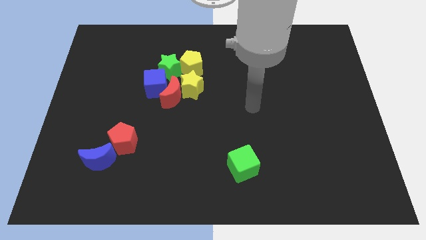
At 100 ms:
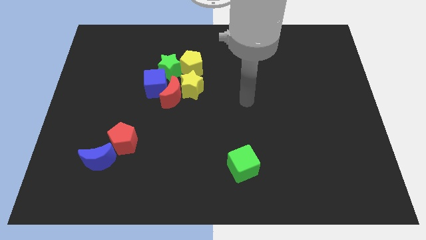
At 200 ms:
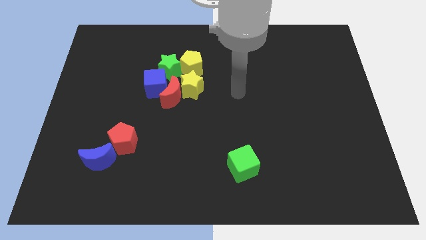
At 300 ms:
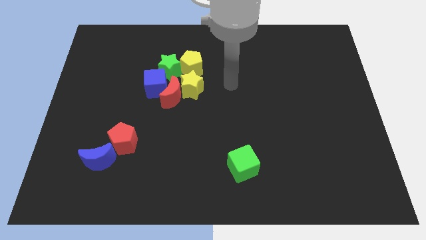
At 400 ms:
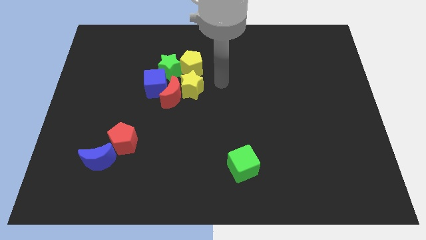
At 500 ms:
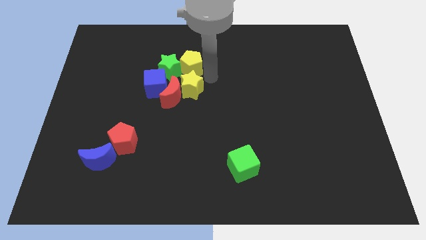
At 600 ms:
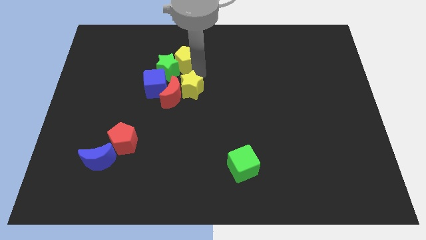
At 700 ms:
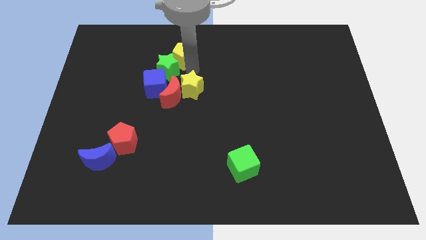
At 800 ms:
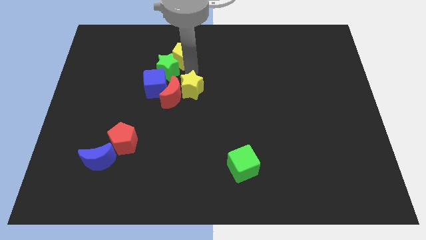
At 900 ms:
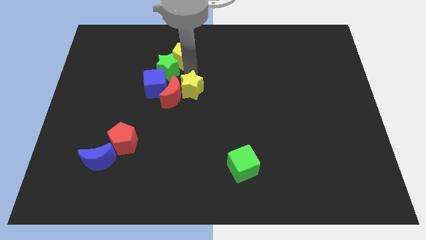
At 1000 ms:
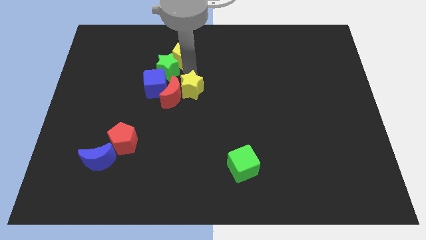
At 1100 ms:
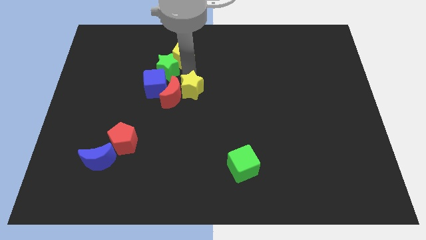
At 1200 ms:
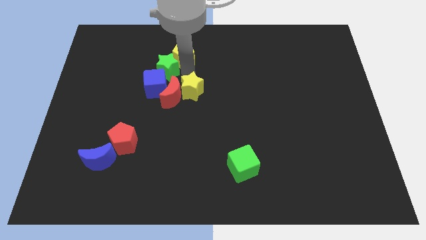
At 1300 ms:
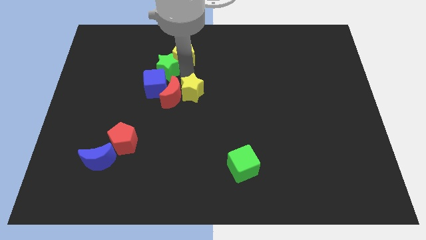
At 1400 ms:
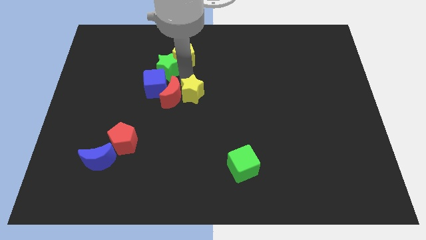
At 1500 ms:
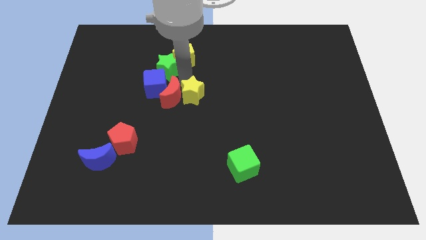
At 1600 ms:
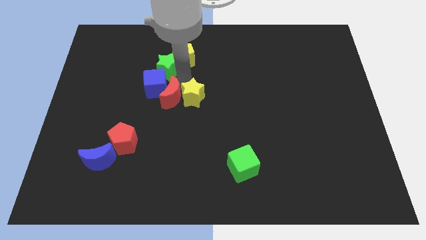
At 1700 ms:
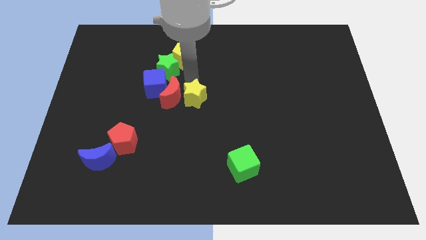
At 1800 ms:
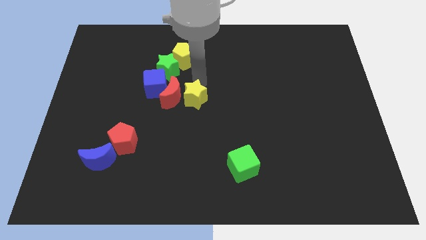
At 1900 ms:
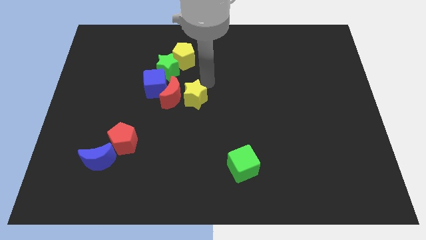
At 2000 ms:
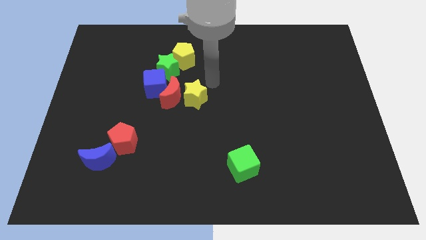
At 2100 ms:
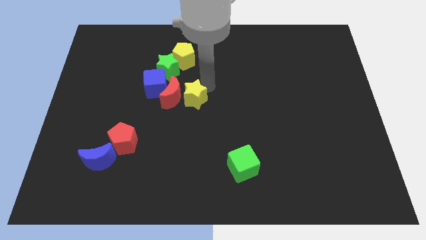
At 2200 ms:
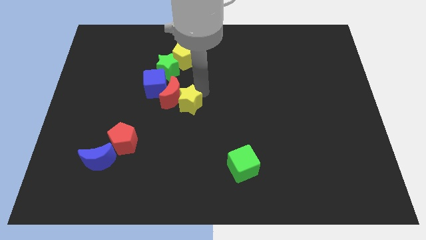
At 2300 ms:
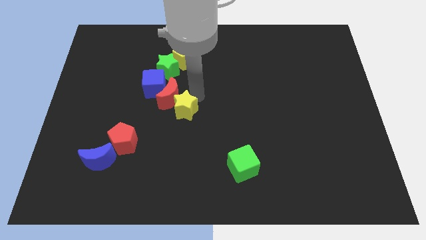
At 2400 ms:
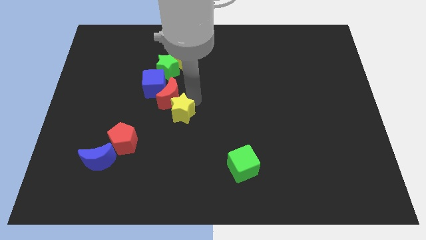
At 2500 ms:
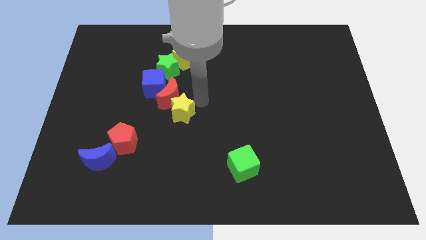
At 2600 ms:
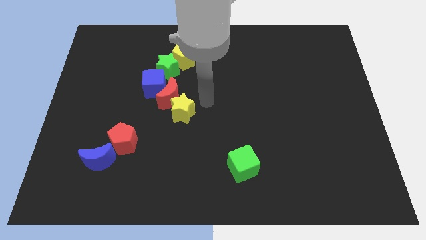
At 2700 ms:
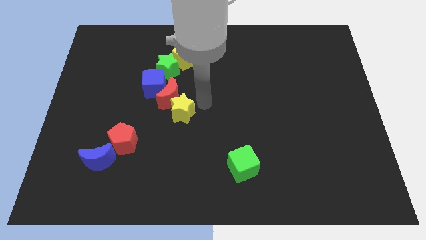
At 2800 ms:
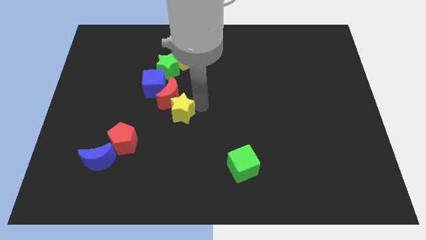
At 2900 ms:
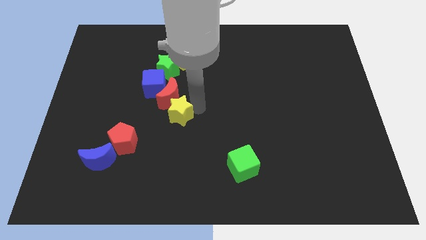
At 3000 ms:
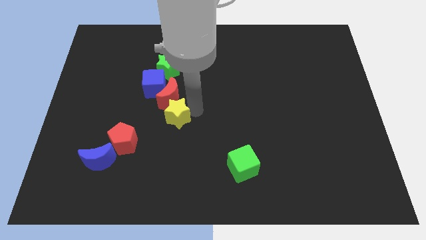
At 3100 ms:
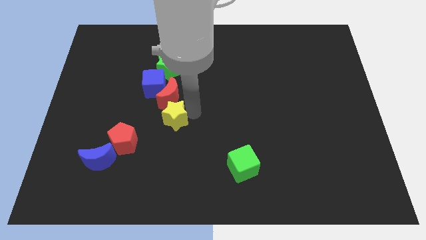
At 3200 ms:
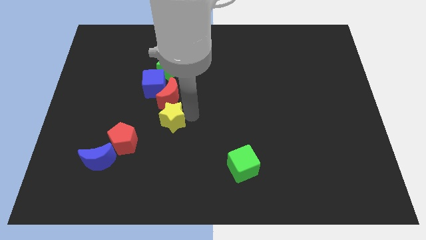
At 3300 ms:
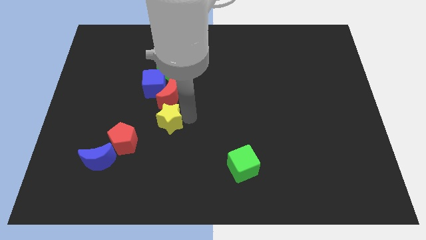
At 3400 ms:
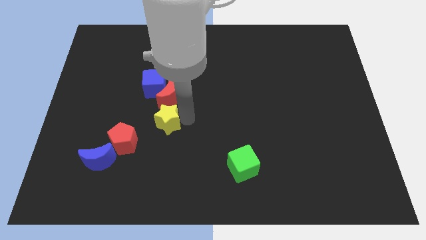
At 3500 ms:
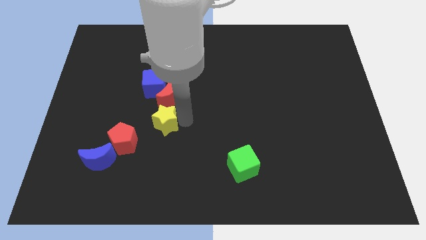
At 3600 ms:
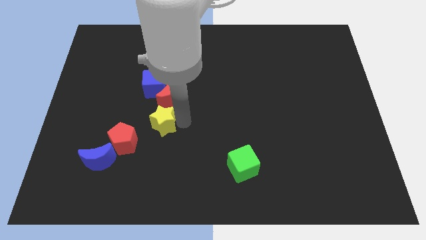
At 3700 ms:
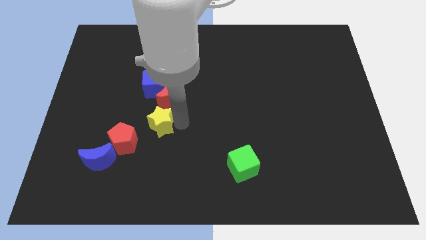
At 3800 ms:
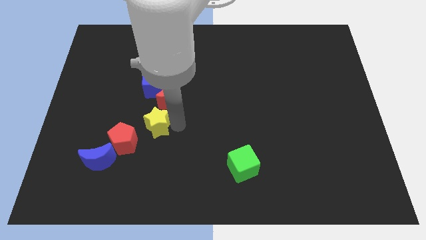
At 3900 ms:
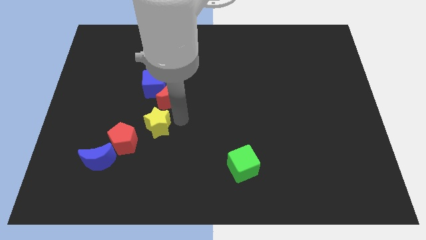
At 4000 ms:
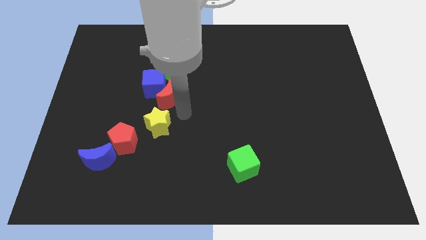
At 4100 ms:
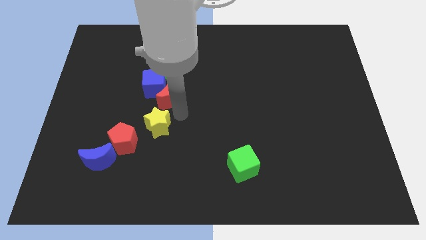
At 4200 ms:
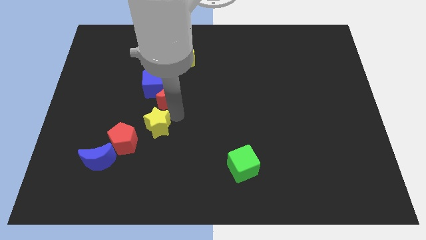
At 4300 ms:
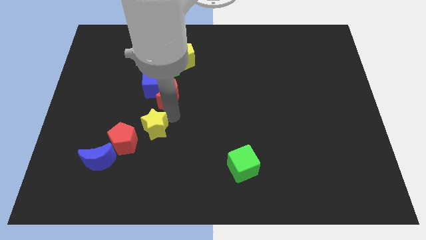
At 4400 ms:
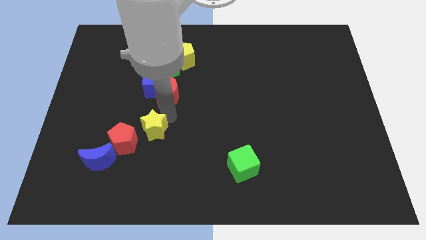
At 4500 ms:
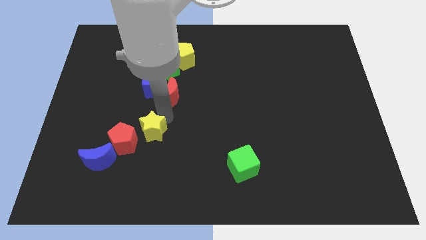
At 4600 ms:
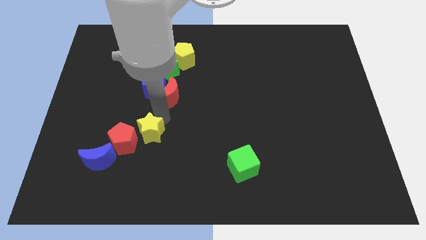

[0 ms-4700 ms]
slide the yellow star close to the red pentagon

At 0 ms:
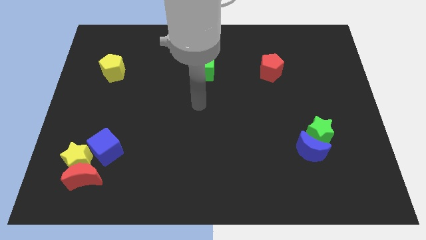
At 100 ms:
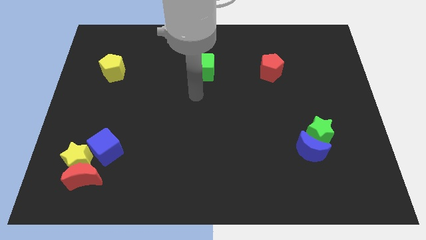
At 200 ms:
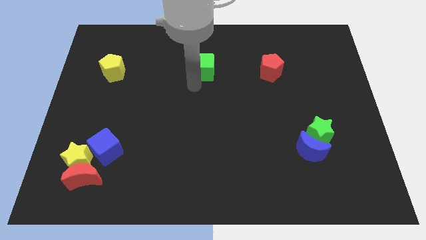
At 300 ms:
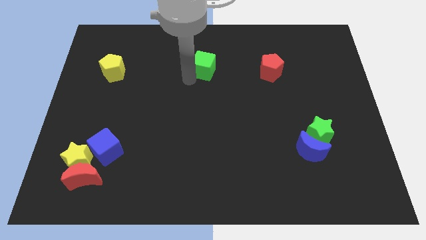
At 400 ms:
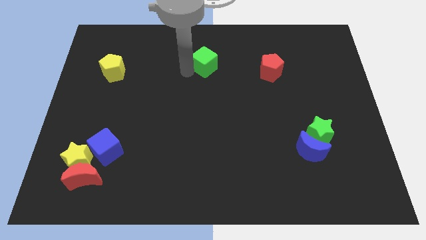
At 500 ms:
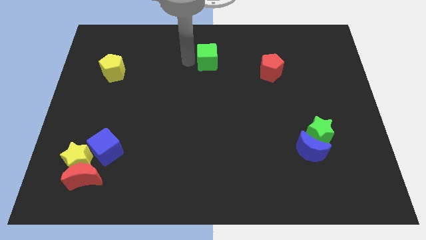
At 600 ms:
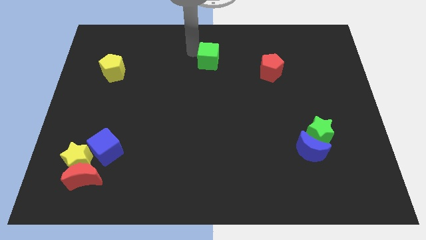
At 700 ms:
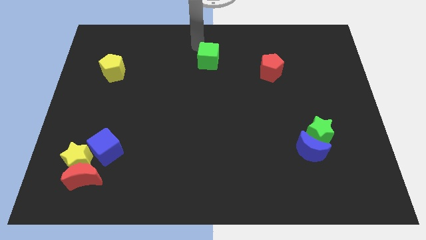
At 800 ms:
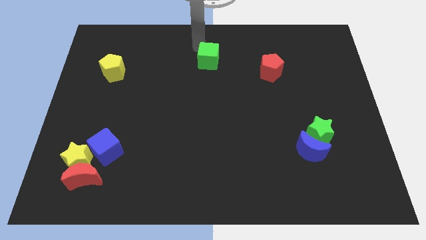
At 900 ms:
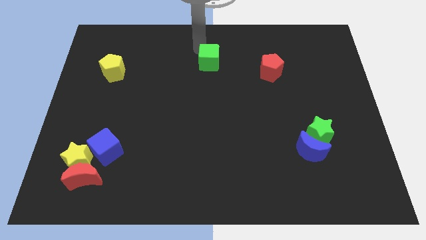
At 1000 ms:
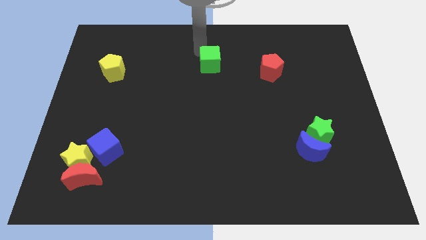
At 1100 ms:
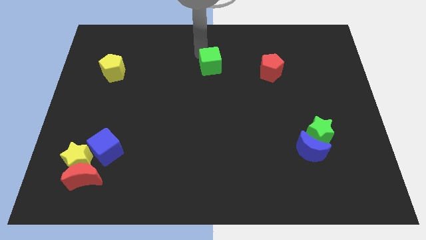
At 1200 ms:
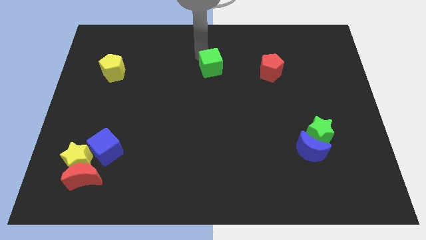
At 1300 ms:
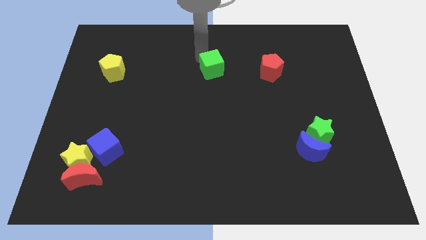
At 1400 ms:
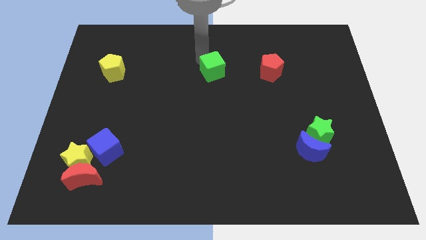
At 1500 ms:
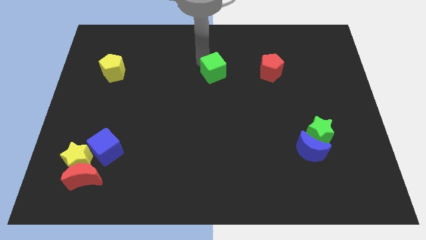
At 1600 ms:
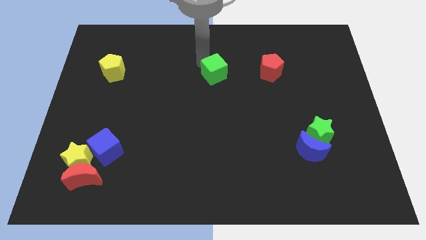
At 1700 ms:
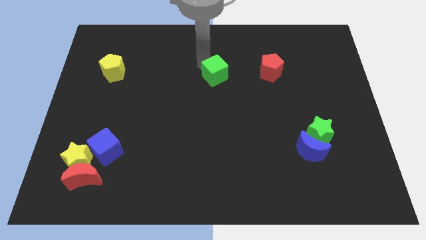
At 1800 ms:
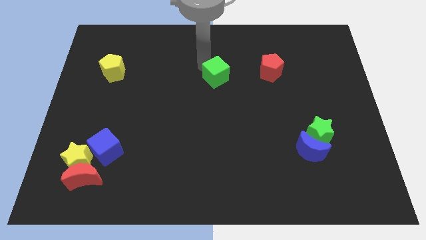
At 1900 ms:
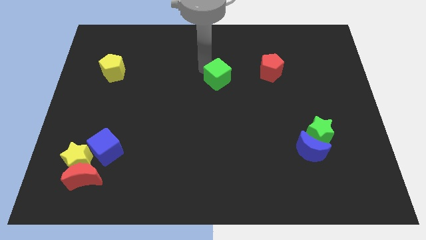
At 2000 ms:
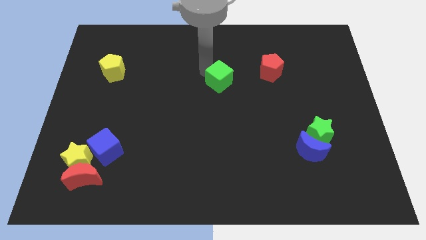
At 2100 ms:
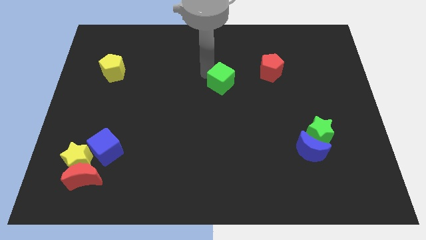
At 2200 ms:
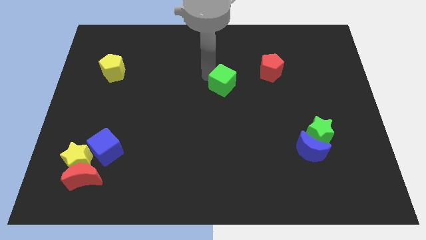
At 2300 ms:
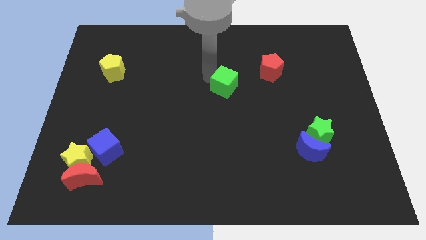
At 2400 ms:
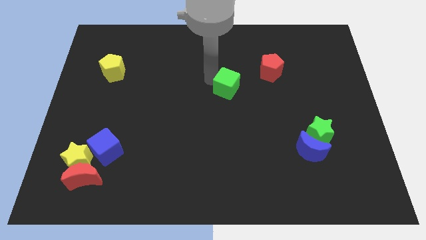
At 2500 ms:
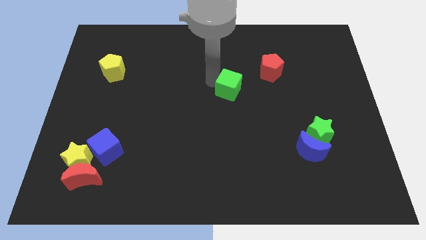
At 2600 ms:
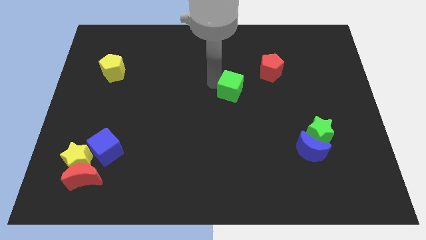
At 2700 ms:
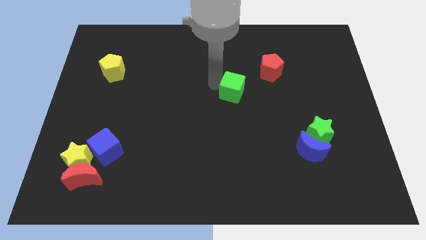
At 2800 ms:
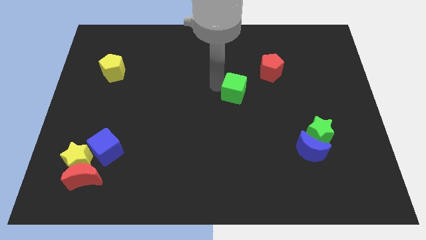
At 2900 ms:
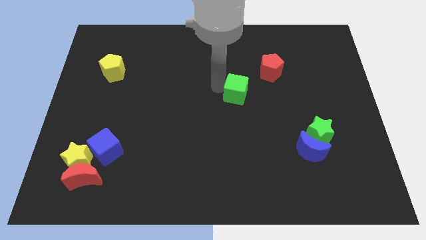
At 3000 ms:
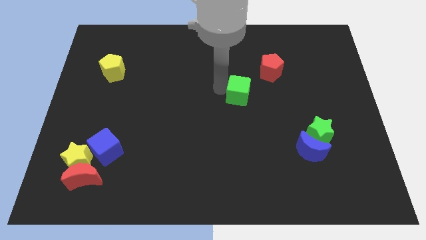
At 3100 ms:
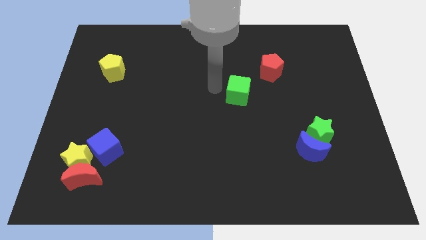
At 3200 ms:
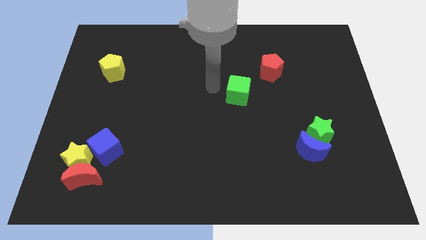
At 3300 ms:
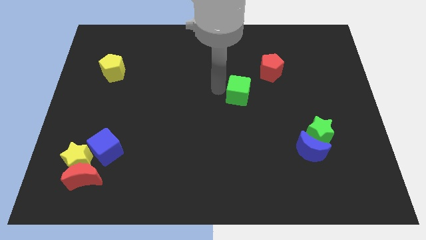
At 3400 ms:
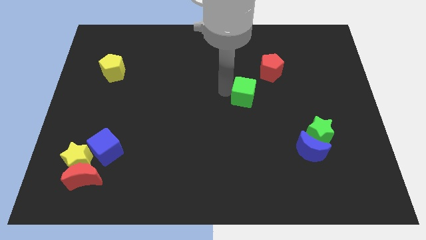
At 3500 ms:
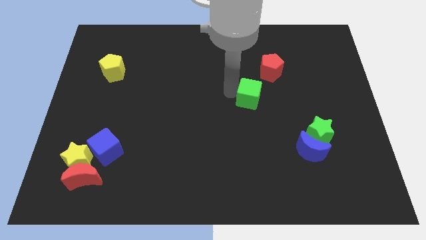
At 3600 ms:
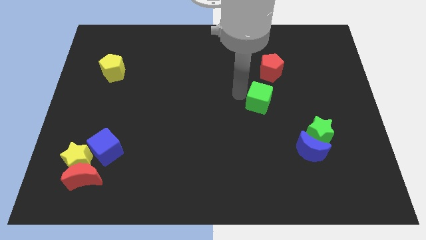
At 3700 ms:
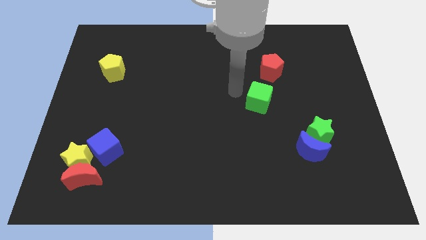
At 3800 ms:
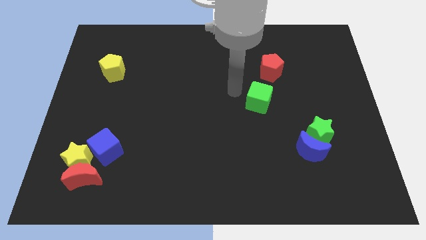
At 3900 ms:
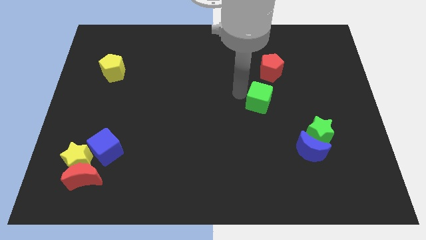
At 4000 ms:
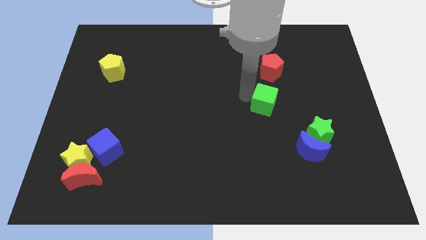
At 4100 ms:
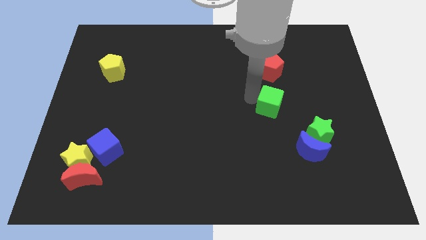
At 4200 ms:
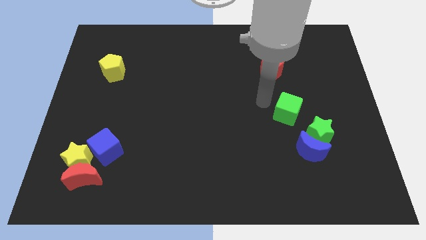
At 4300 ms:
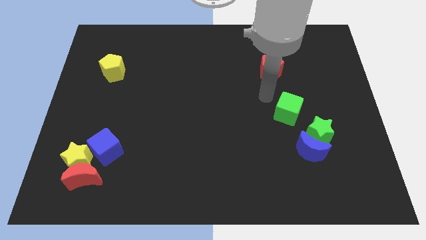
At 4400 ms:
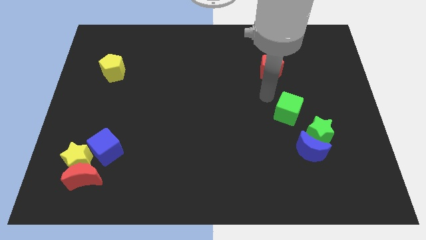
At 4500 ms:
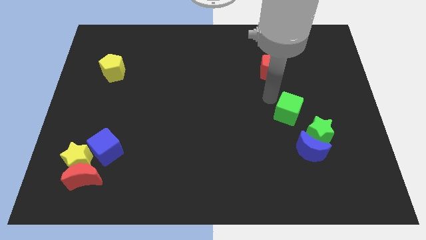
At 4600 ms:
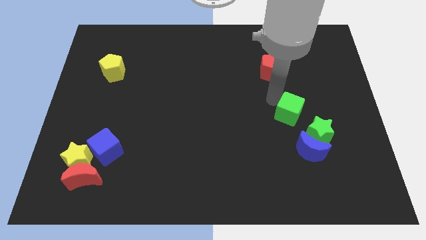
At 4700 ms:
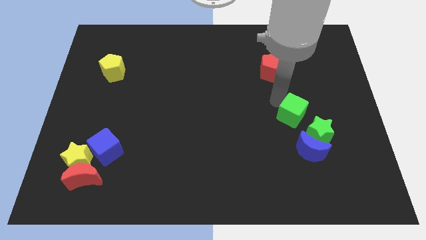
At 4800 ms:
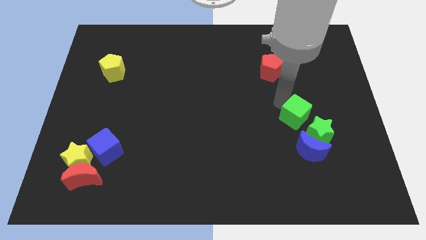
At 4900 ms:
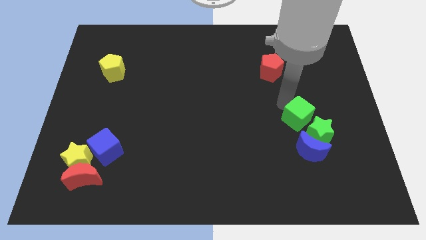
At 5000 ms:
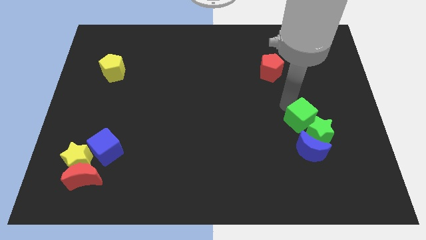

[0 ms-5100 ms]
put the green cube towards the green star
